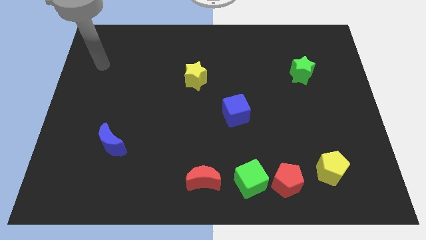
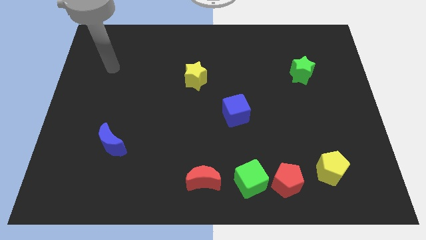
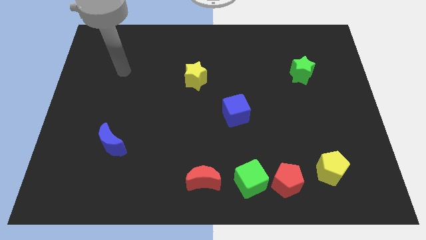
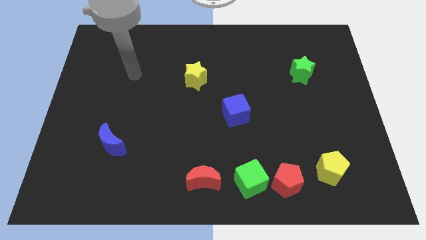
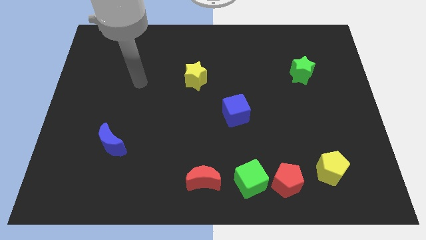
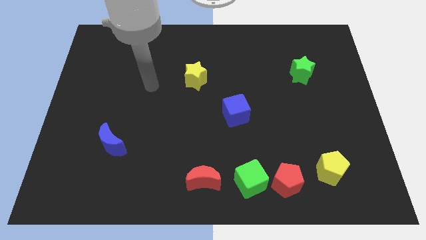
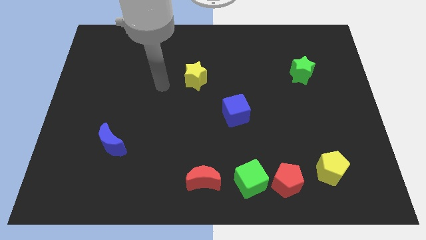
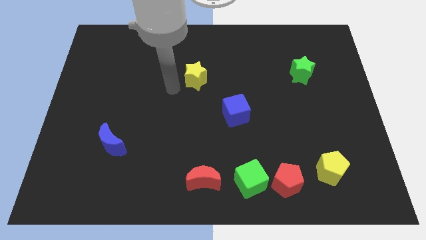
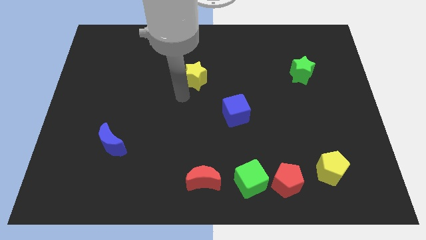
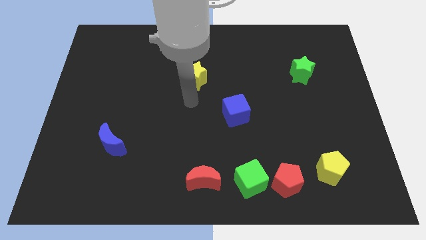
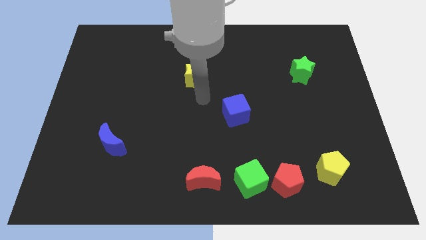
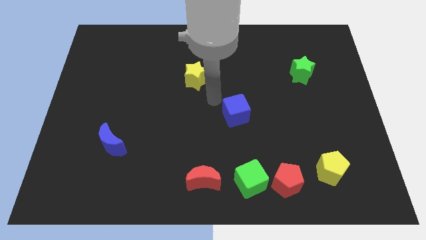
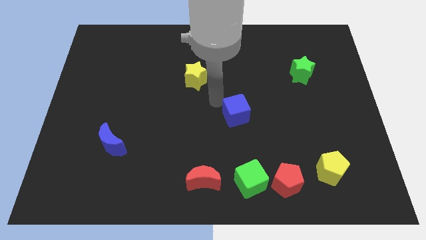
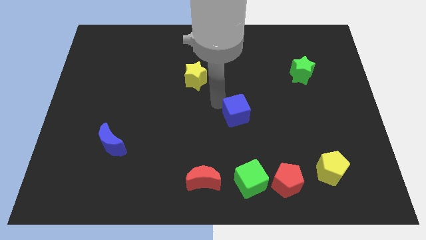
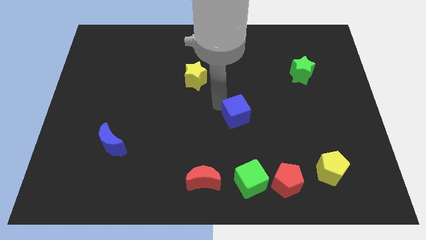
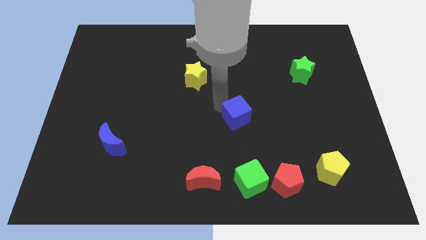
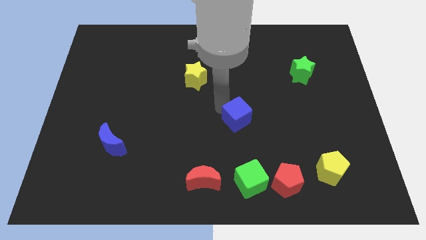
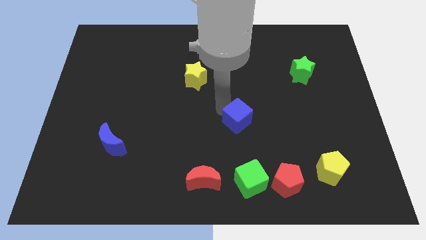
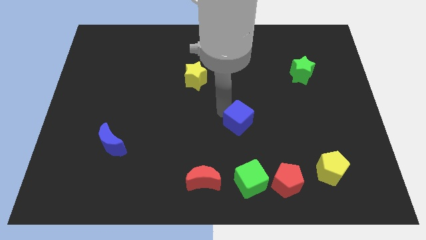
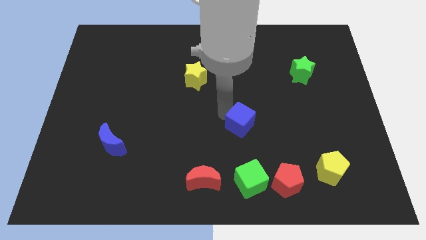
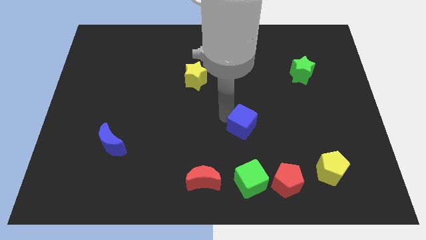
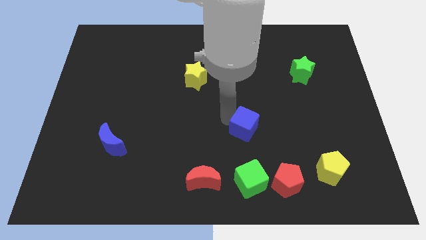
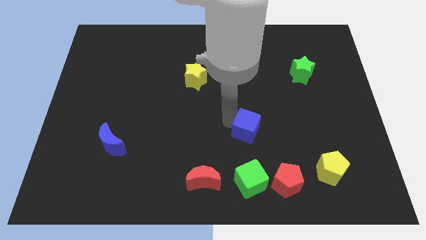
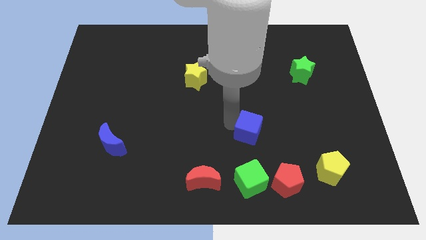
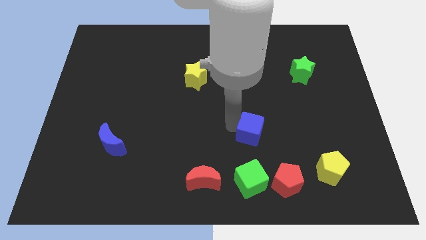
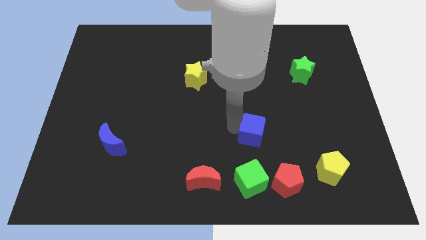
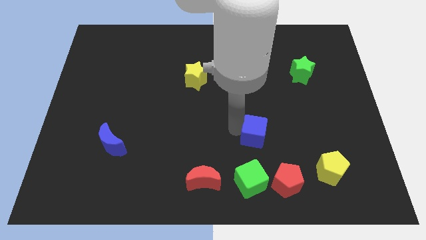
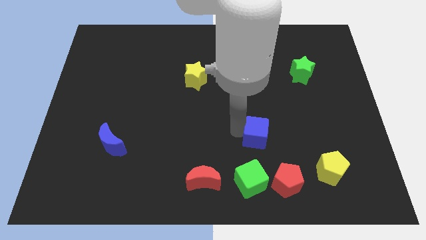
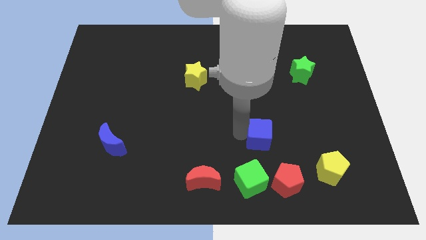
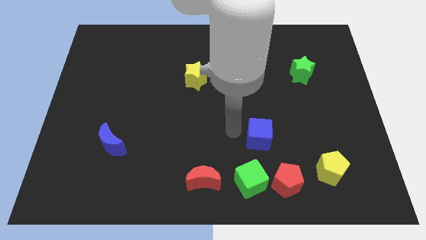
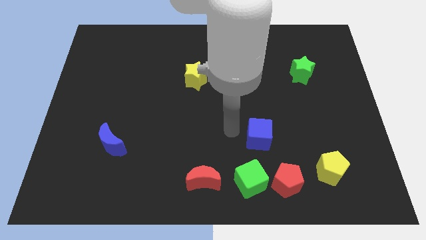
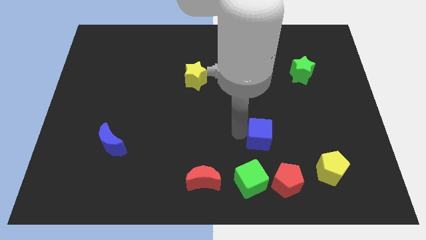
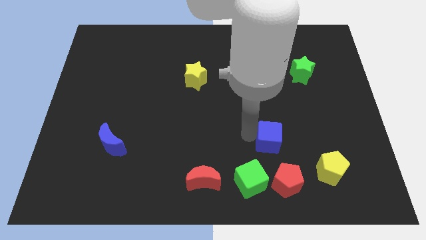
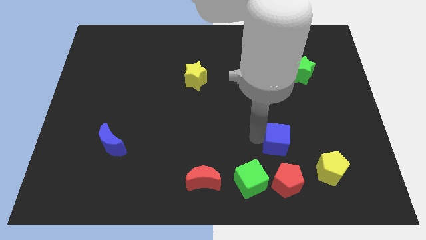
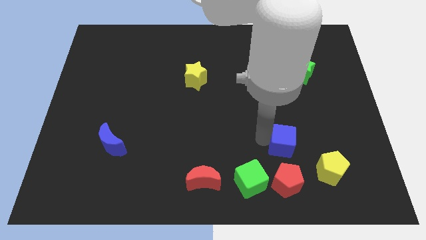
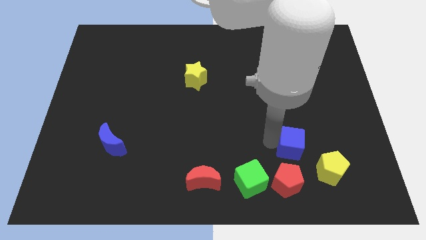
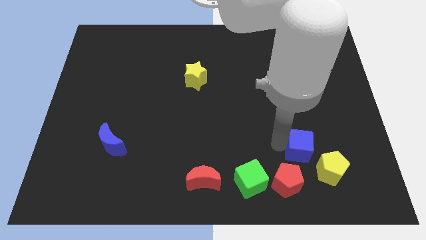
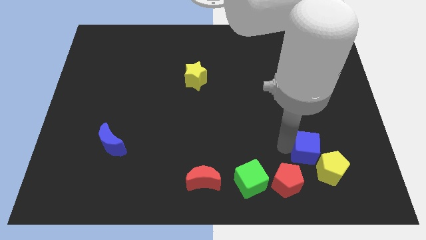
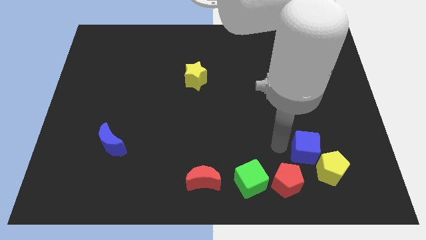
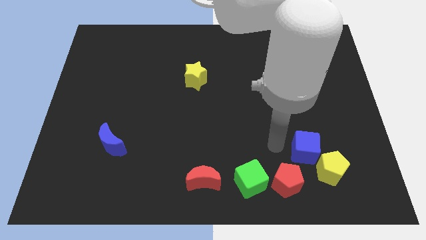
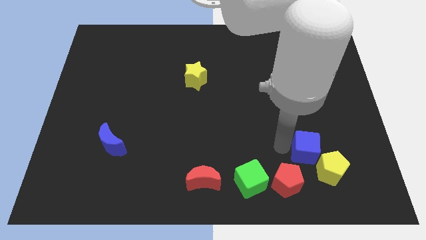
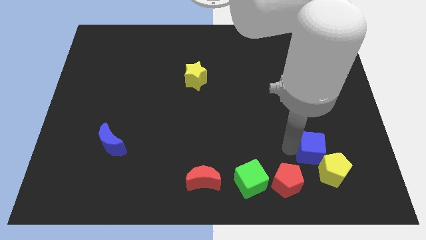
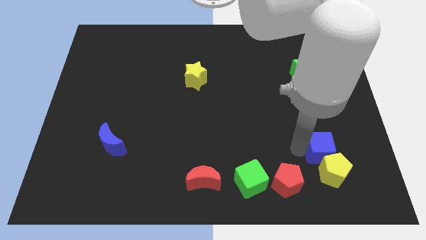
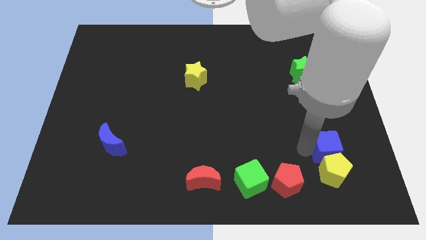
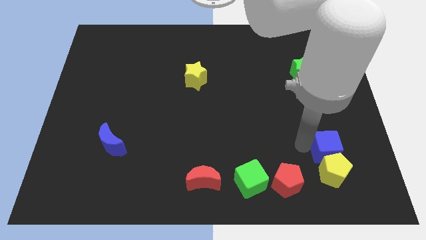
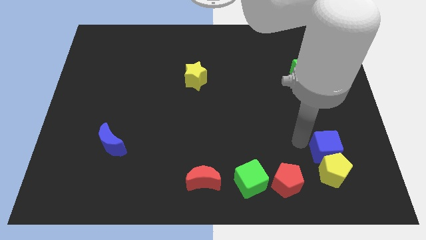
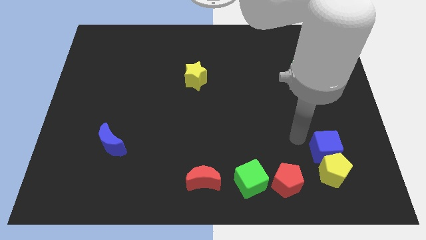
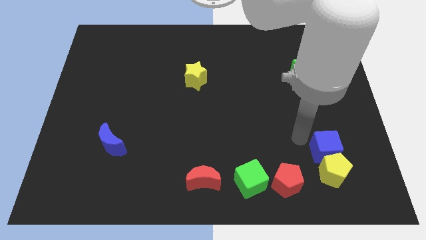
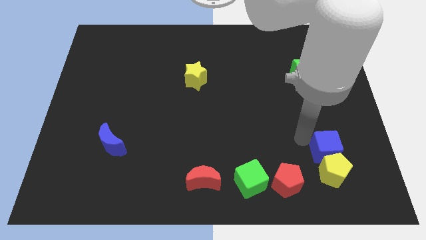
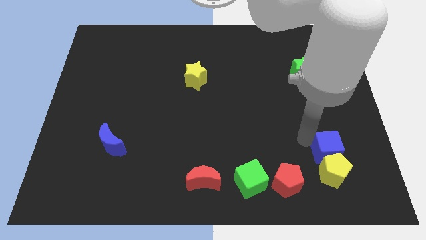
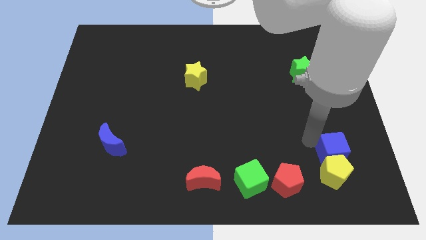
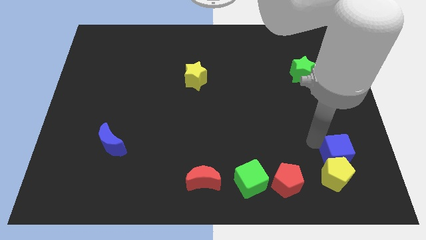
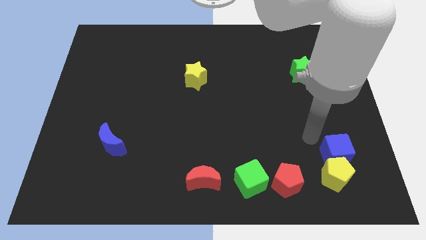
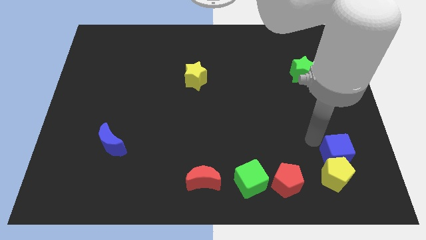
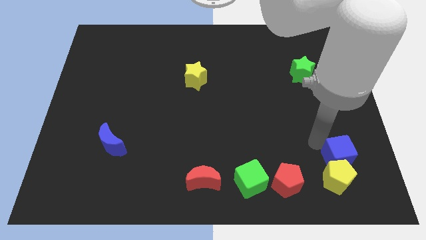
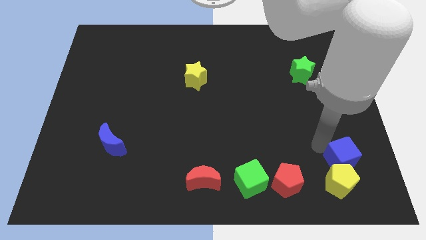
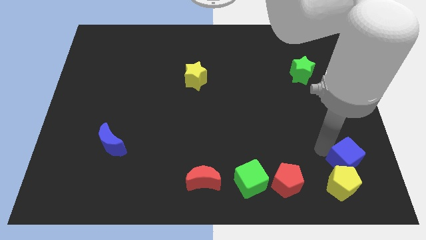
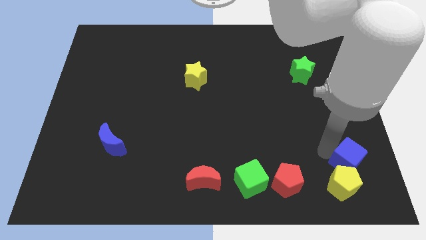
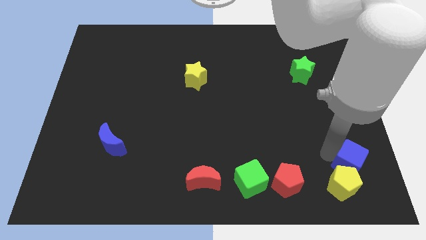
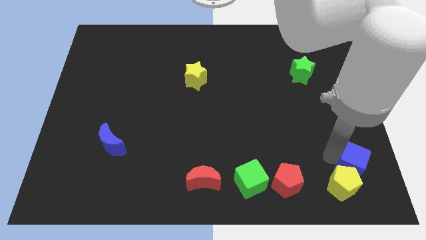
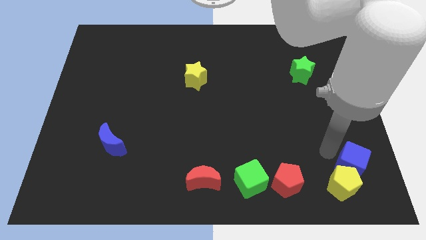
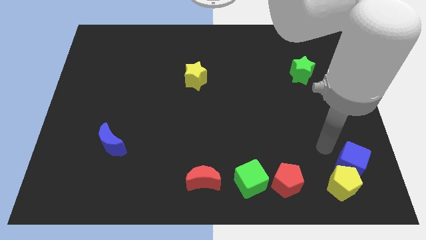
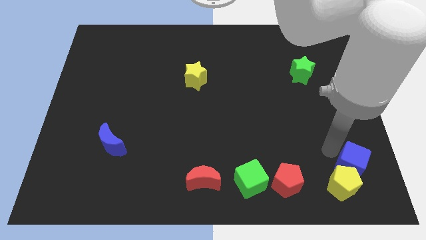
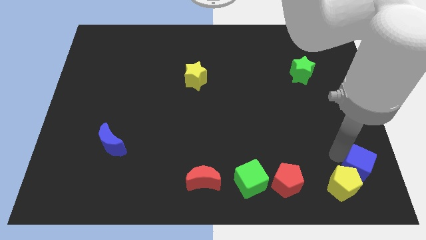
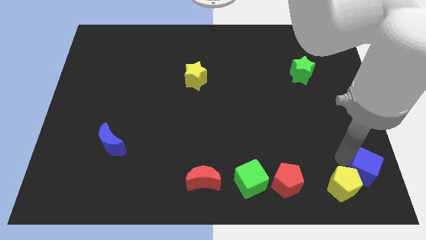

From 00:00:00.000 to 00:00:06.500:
push the blue cube to the lower right corner
